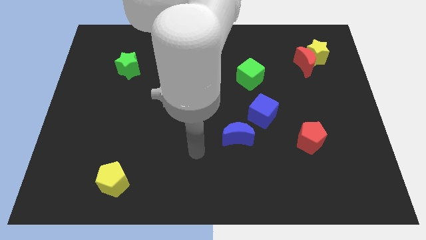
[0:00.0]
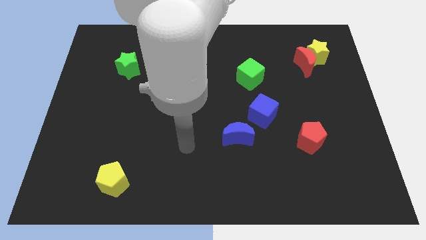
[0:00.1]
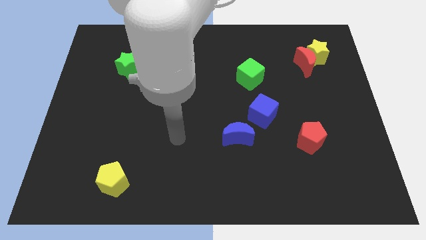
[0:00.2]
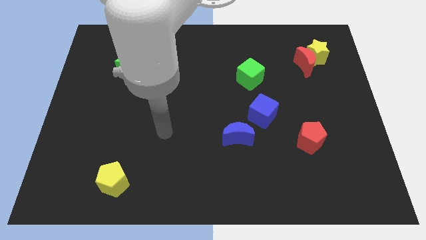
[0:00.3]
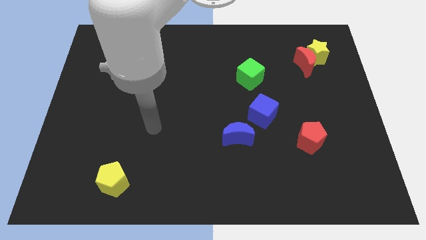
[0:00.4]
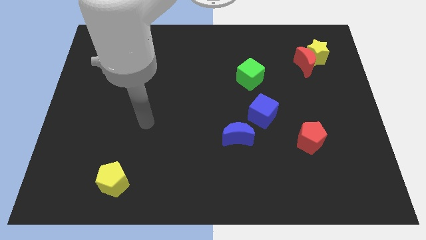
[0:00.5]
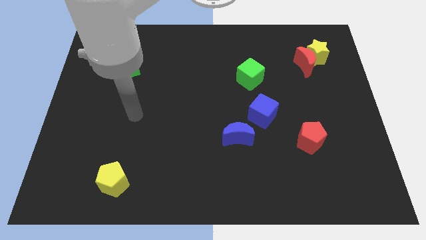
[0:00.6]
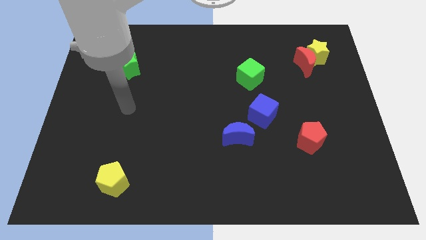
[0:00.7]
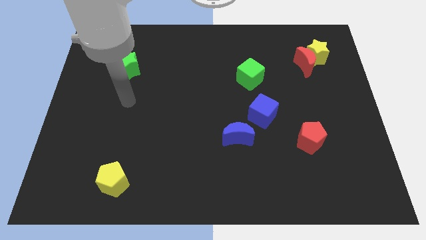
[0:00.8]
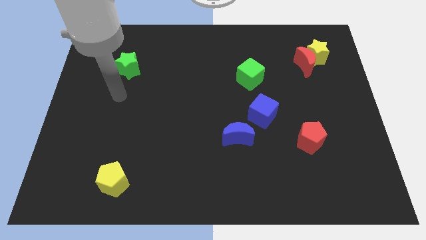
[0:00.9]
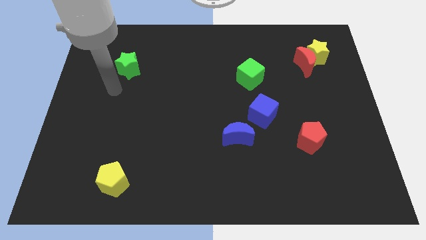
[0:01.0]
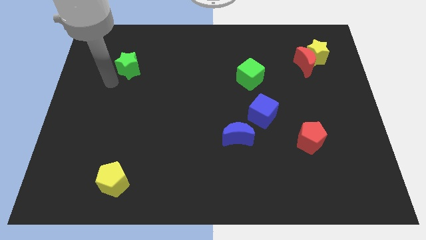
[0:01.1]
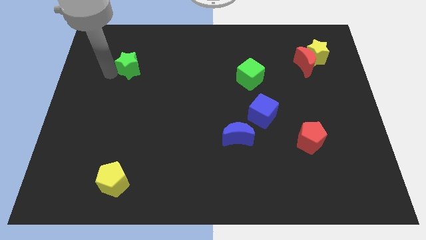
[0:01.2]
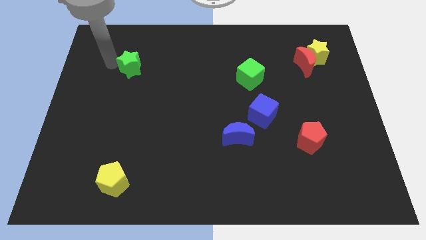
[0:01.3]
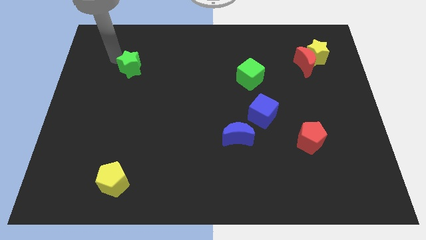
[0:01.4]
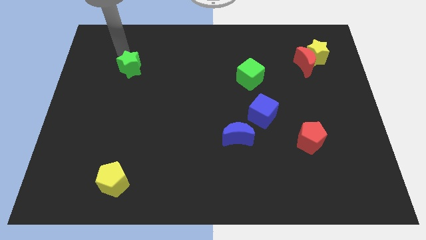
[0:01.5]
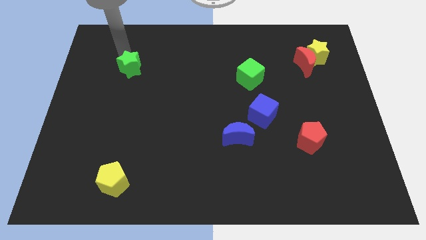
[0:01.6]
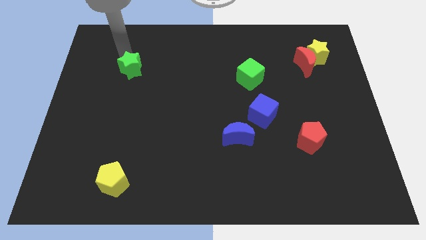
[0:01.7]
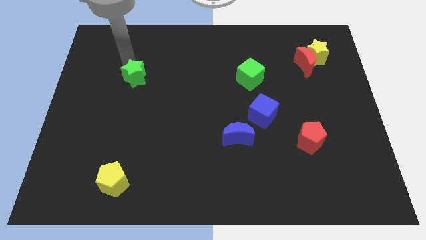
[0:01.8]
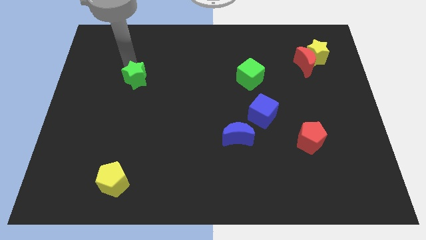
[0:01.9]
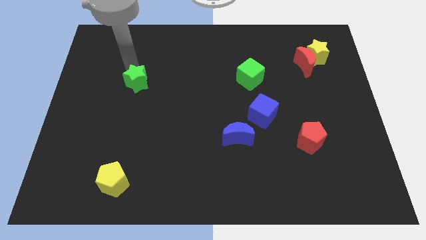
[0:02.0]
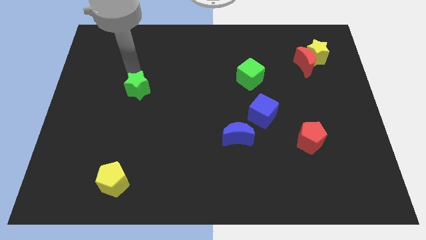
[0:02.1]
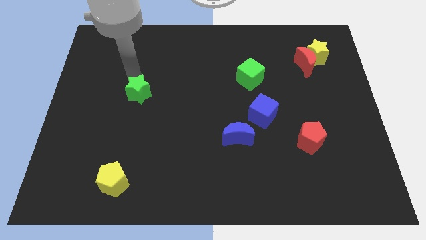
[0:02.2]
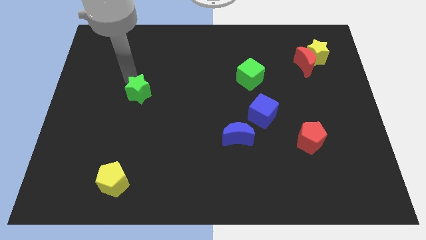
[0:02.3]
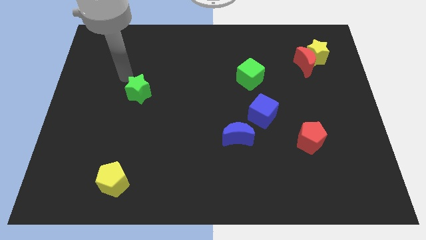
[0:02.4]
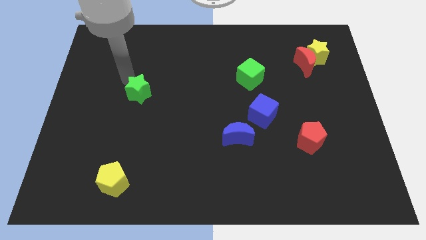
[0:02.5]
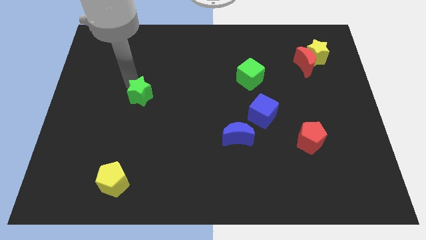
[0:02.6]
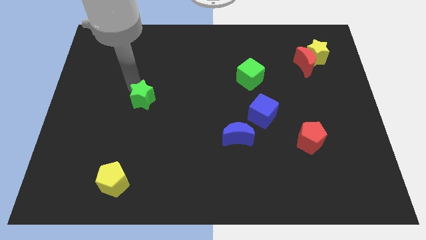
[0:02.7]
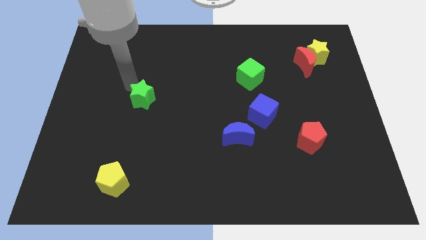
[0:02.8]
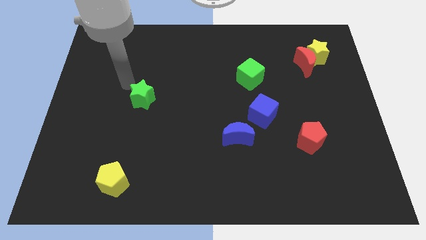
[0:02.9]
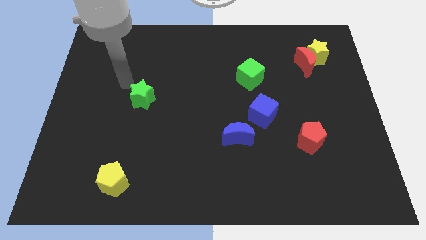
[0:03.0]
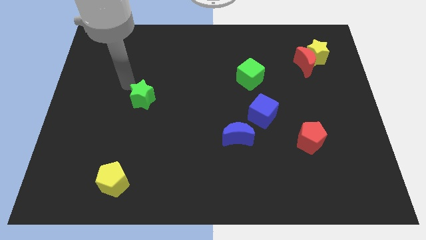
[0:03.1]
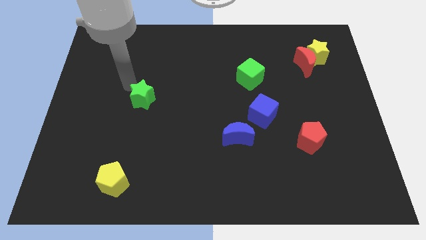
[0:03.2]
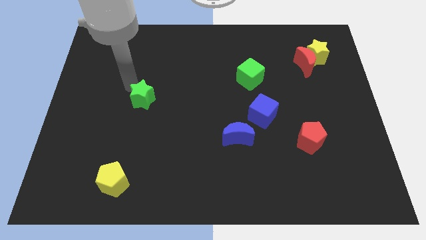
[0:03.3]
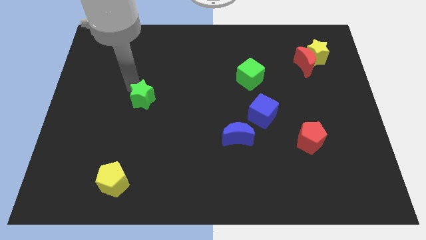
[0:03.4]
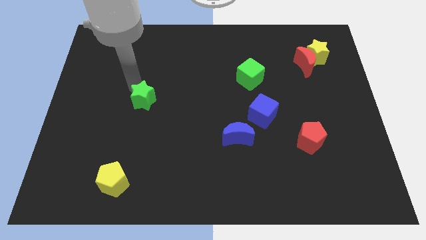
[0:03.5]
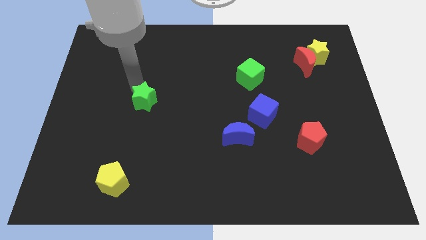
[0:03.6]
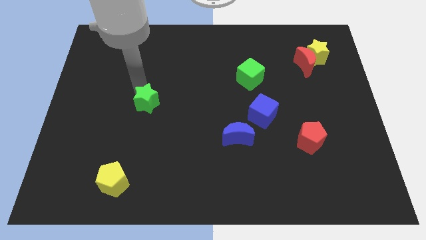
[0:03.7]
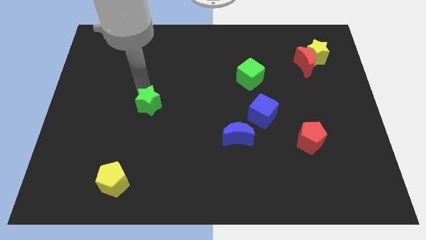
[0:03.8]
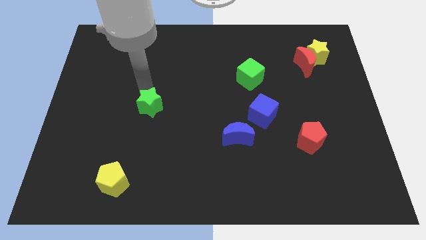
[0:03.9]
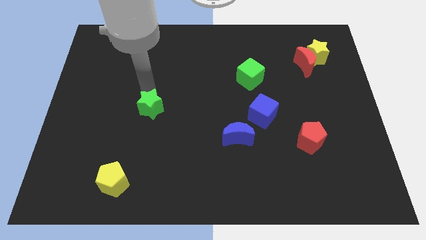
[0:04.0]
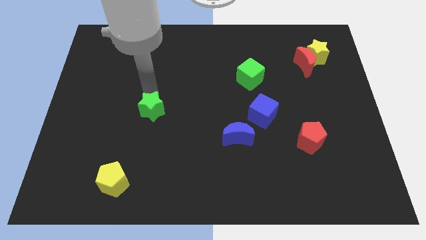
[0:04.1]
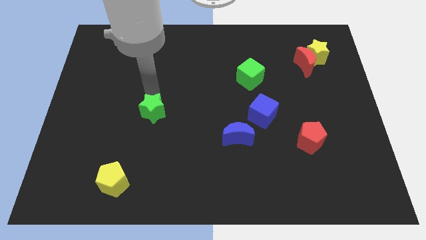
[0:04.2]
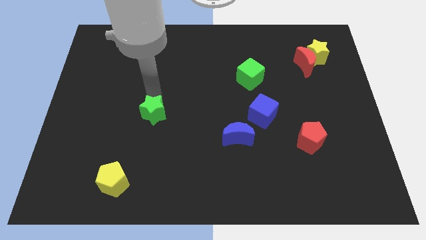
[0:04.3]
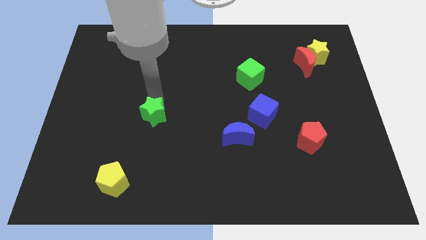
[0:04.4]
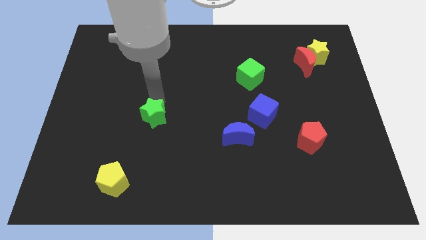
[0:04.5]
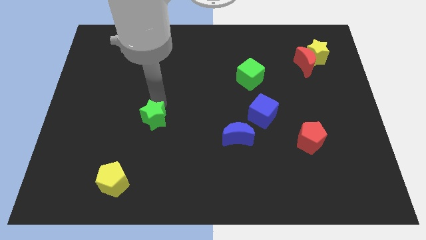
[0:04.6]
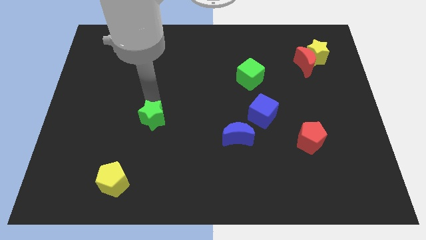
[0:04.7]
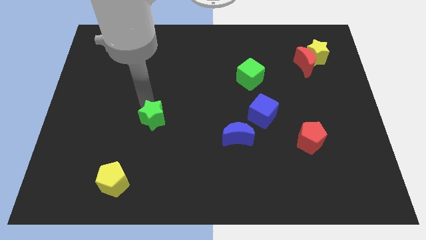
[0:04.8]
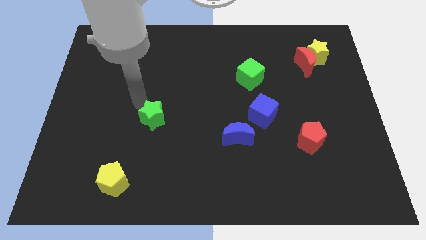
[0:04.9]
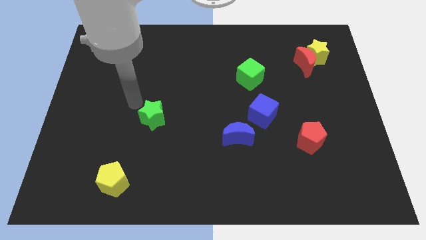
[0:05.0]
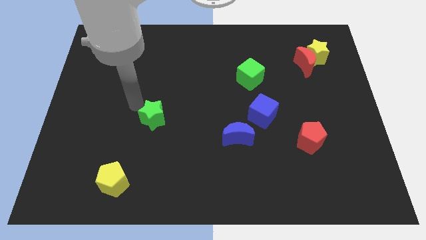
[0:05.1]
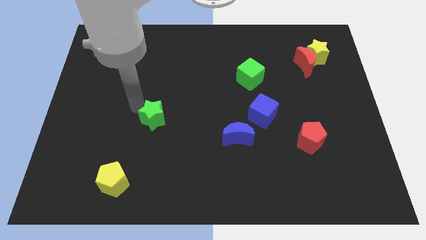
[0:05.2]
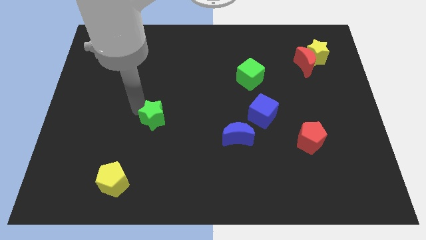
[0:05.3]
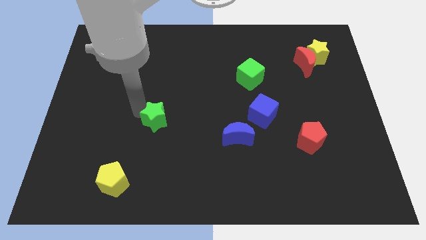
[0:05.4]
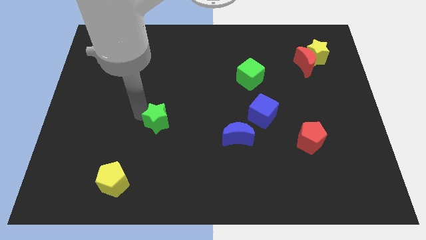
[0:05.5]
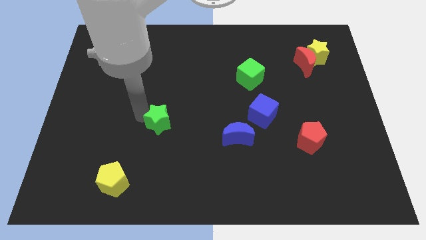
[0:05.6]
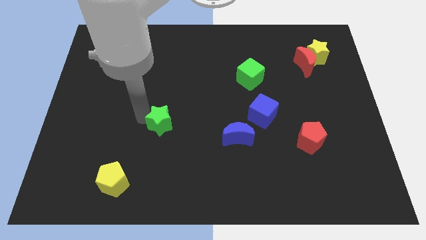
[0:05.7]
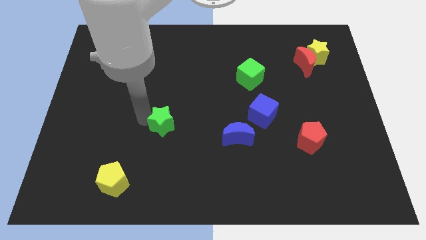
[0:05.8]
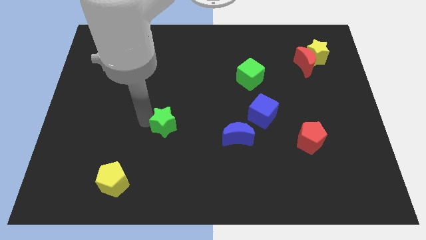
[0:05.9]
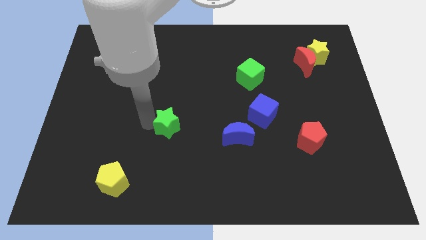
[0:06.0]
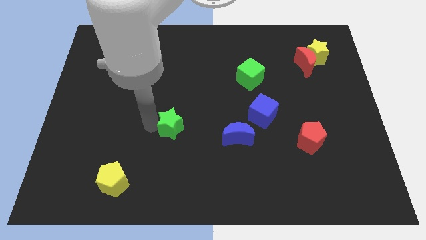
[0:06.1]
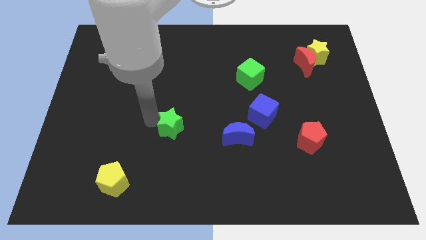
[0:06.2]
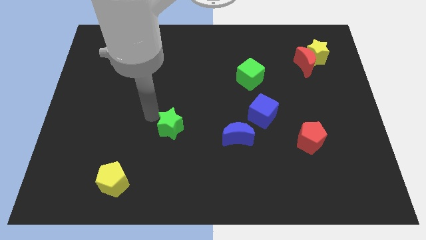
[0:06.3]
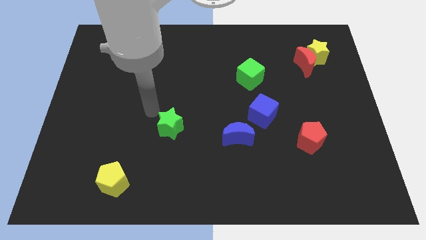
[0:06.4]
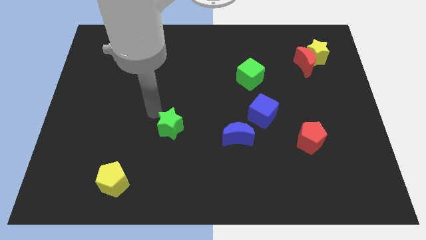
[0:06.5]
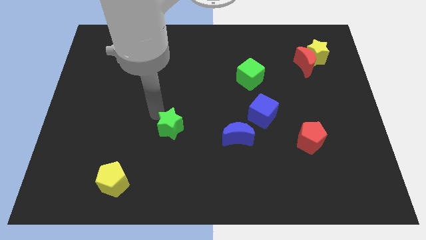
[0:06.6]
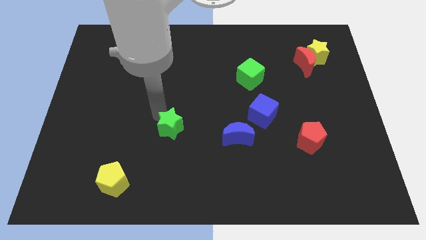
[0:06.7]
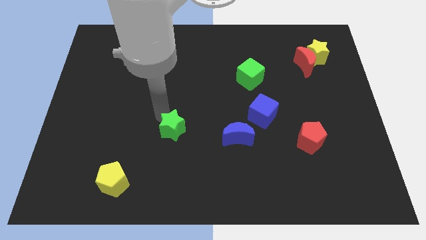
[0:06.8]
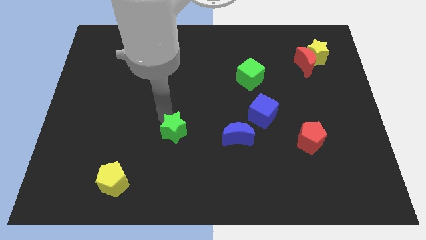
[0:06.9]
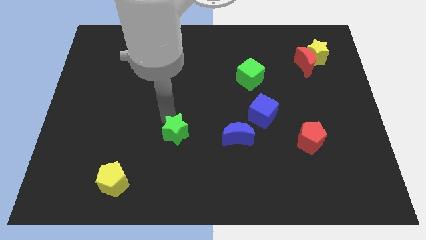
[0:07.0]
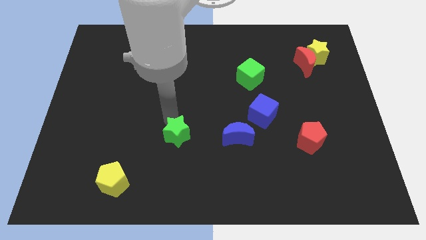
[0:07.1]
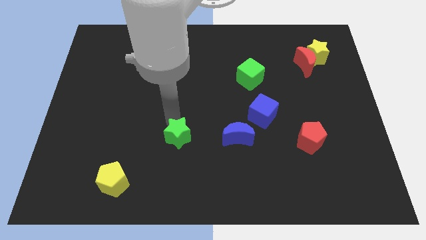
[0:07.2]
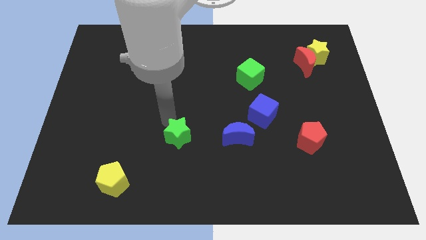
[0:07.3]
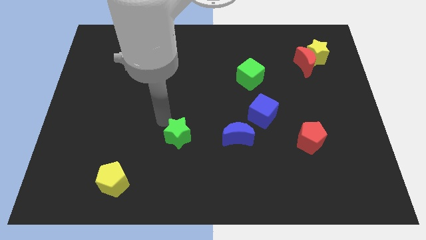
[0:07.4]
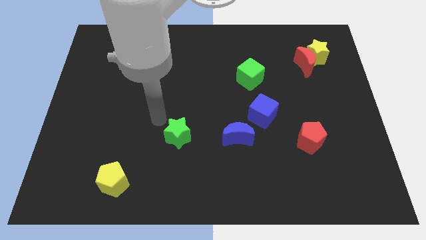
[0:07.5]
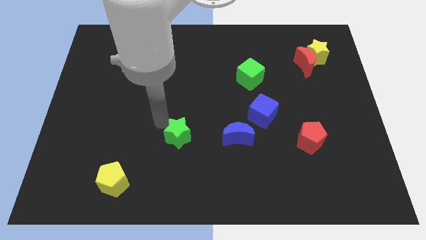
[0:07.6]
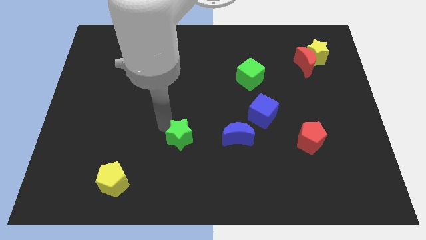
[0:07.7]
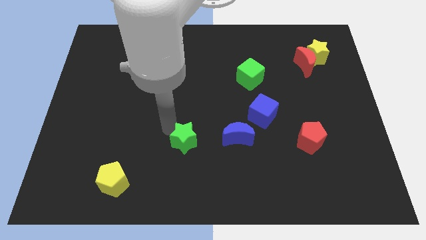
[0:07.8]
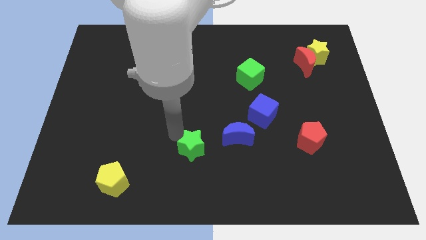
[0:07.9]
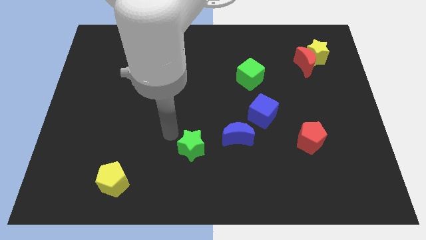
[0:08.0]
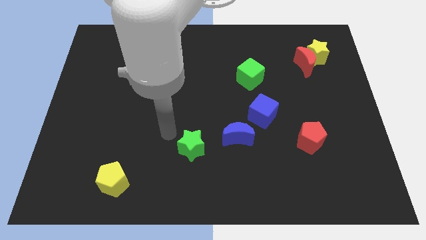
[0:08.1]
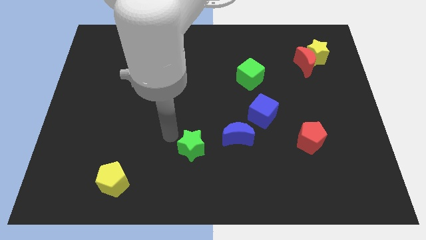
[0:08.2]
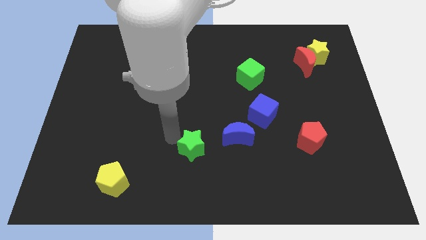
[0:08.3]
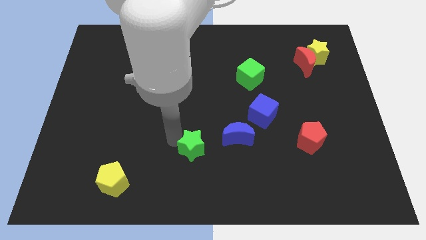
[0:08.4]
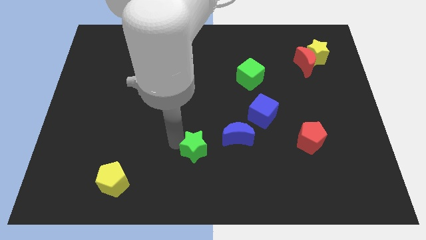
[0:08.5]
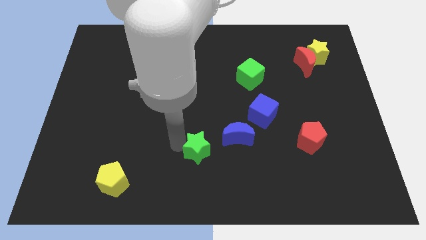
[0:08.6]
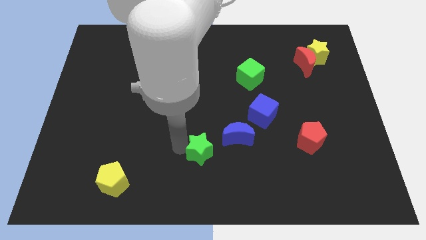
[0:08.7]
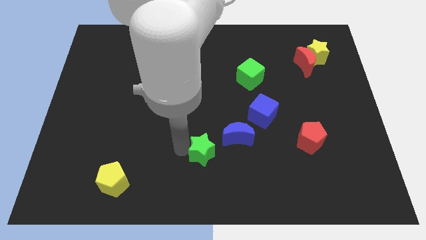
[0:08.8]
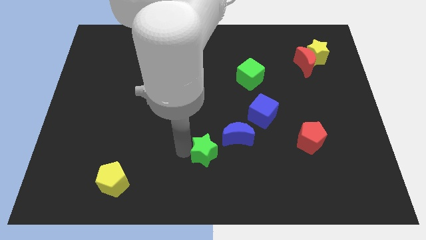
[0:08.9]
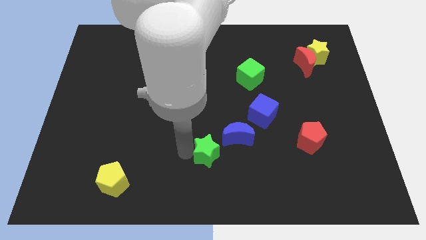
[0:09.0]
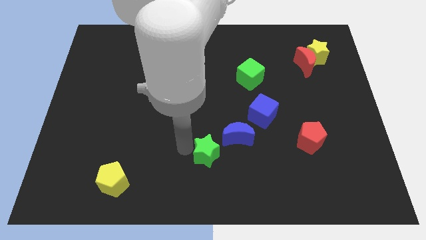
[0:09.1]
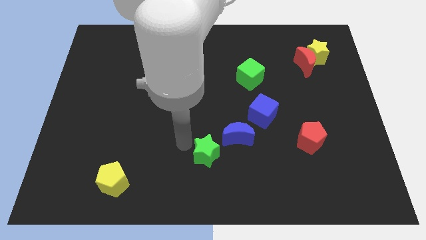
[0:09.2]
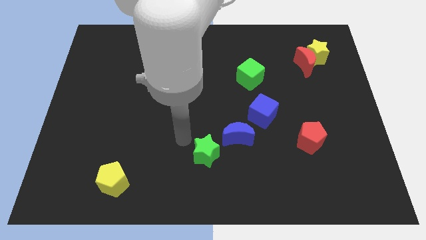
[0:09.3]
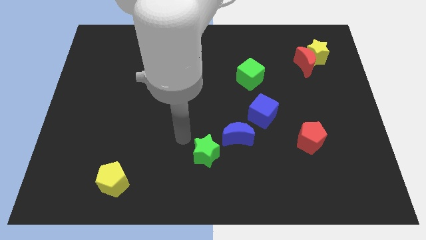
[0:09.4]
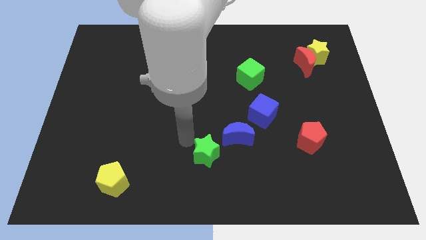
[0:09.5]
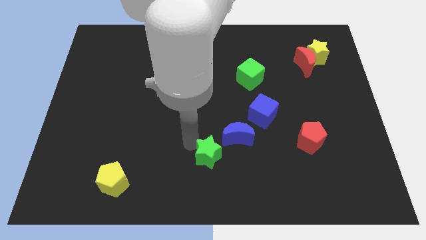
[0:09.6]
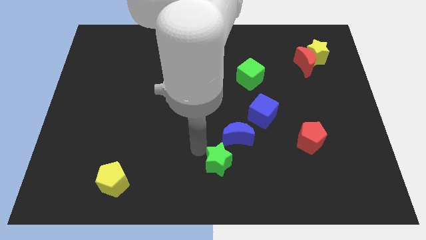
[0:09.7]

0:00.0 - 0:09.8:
push the green star below the blue moon
